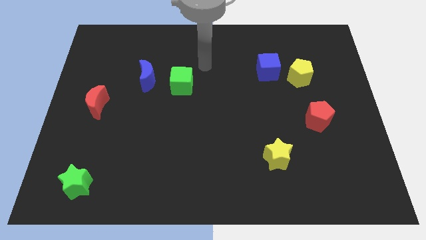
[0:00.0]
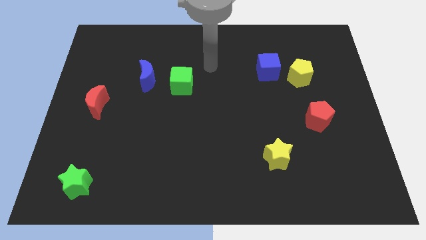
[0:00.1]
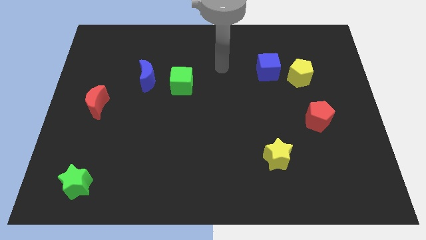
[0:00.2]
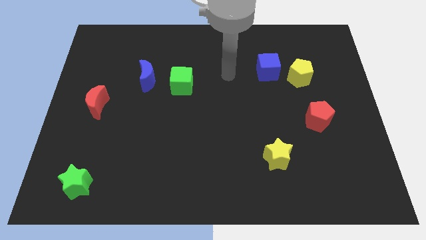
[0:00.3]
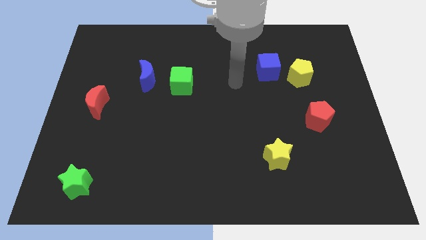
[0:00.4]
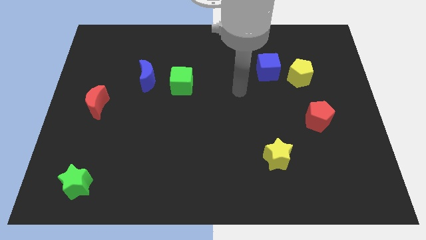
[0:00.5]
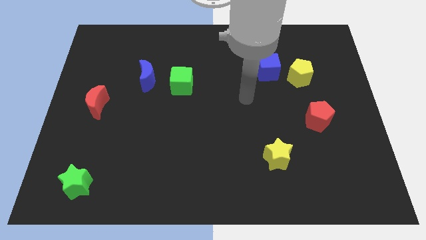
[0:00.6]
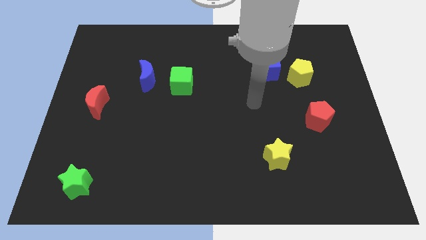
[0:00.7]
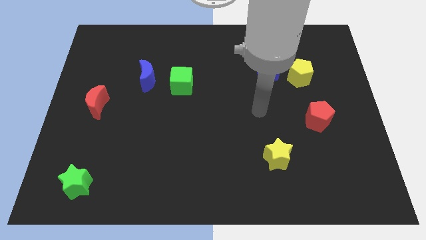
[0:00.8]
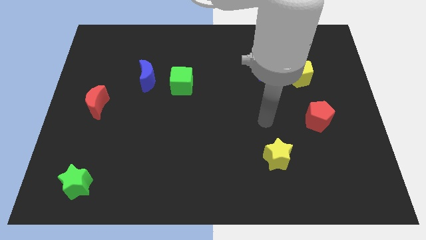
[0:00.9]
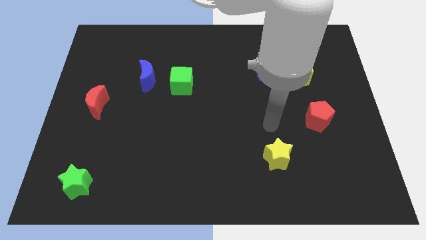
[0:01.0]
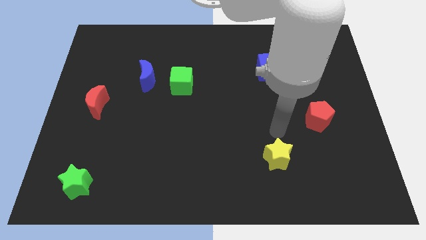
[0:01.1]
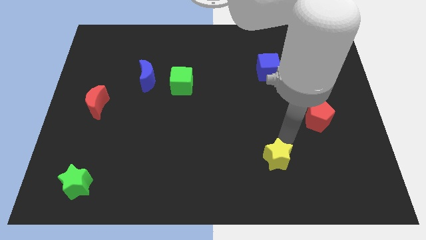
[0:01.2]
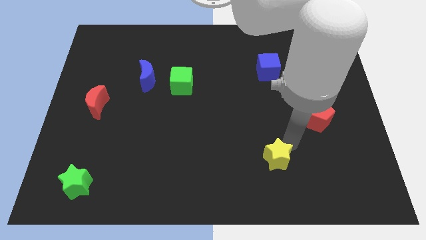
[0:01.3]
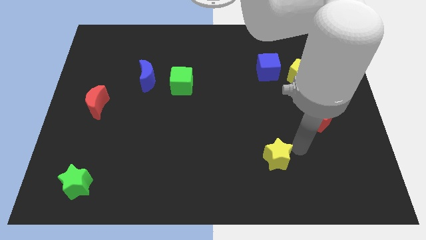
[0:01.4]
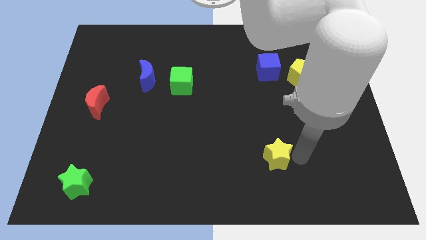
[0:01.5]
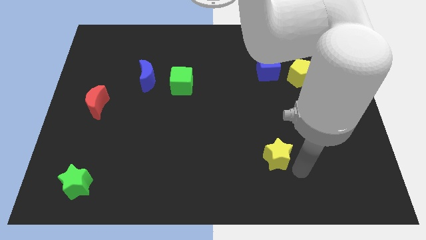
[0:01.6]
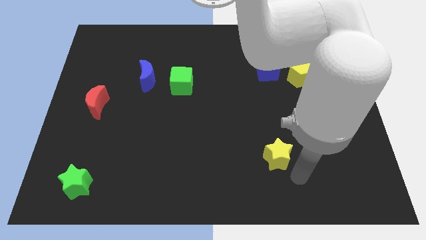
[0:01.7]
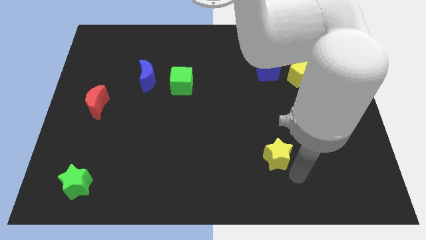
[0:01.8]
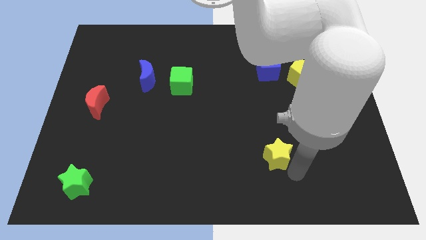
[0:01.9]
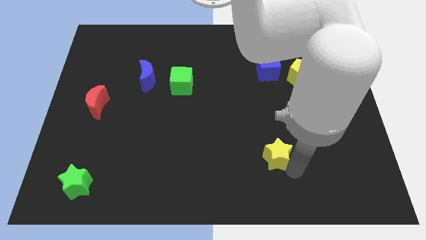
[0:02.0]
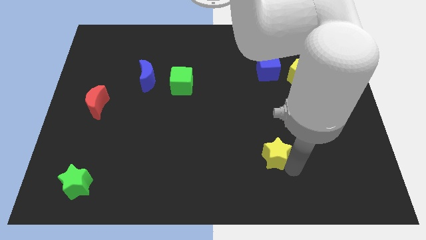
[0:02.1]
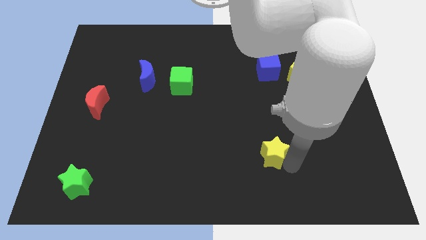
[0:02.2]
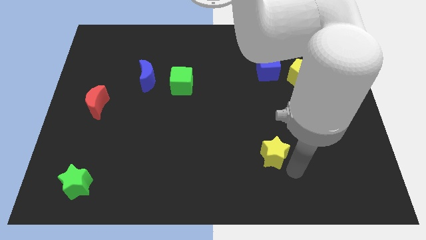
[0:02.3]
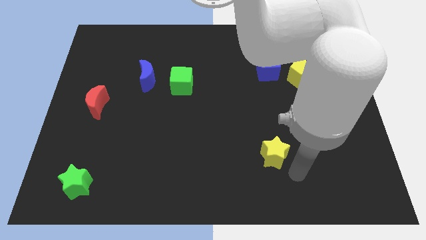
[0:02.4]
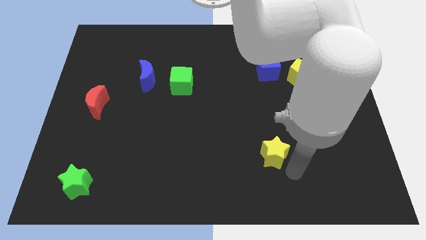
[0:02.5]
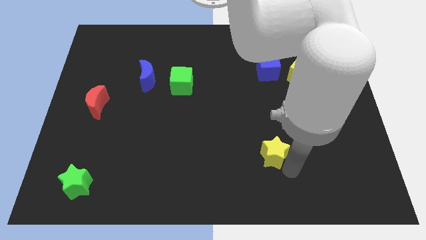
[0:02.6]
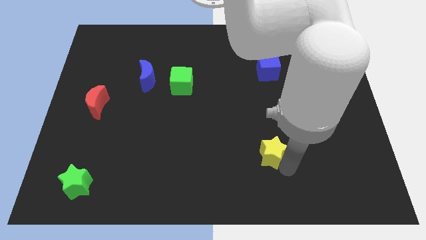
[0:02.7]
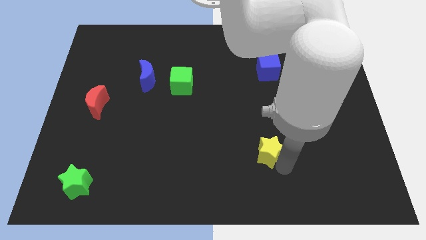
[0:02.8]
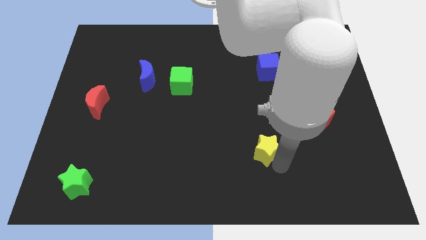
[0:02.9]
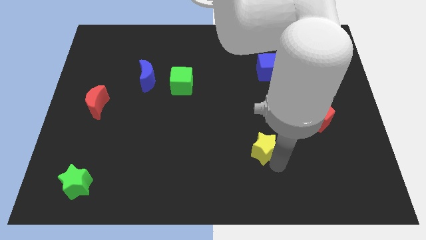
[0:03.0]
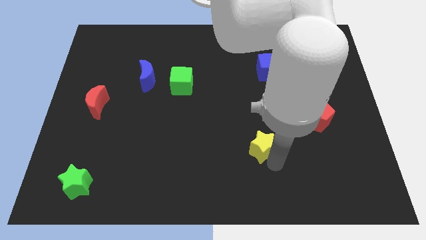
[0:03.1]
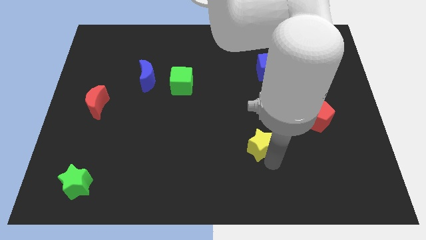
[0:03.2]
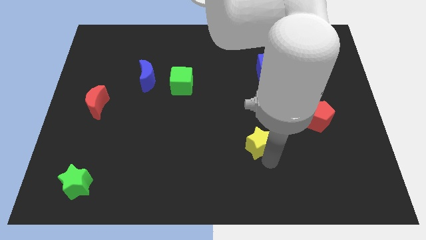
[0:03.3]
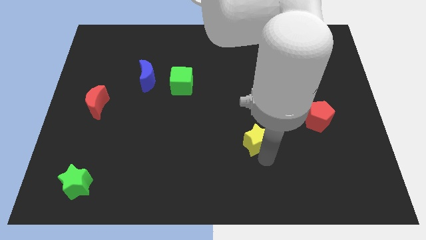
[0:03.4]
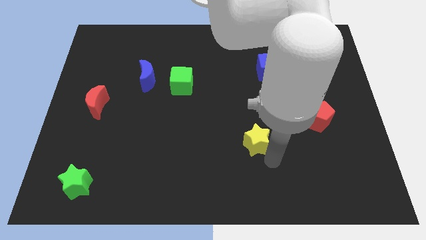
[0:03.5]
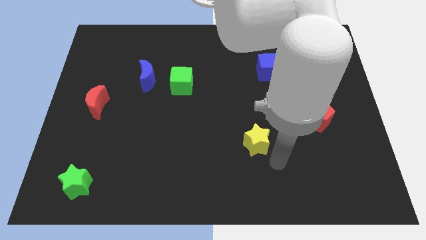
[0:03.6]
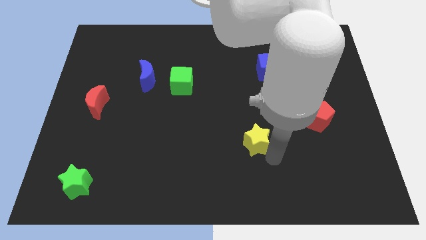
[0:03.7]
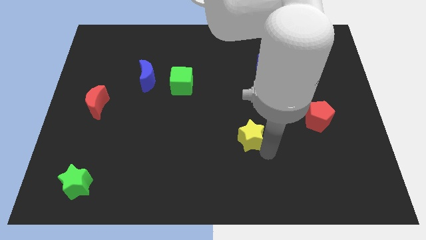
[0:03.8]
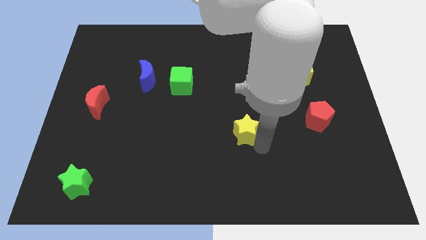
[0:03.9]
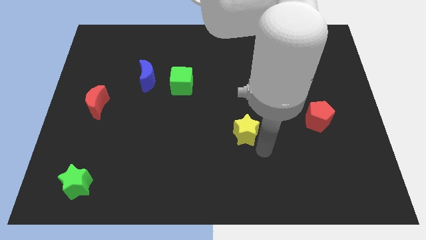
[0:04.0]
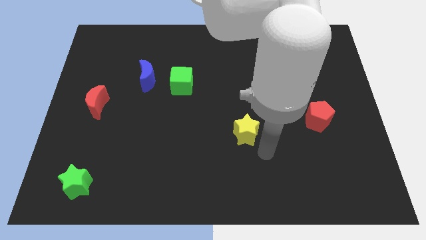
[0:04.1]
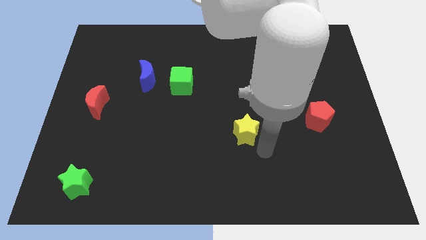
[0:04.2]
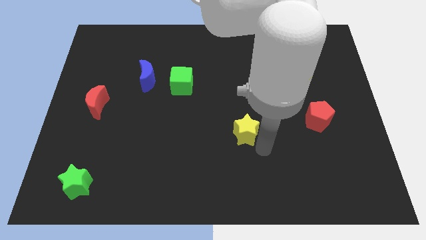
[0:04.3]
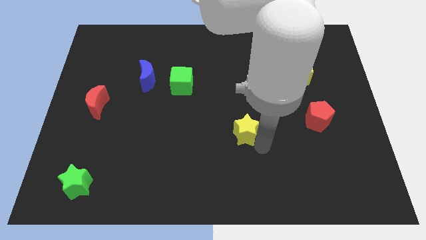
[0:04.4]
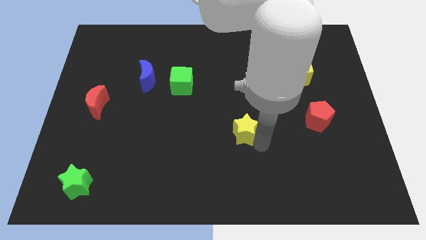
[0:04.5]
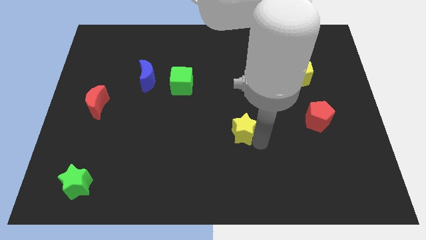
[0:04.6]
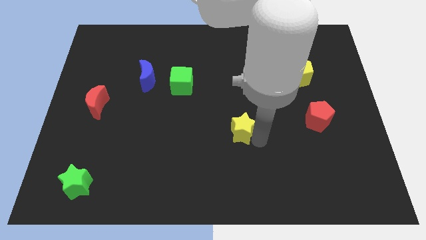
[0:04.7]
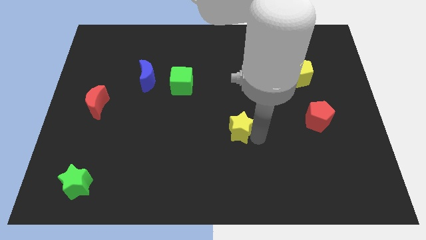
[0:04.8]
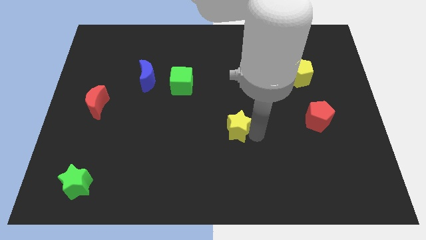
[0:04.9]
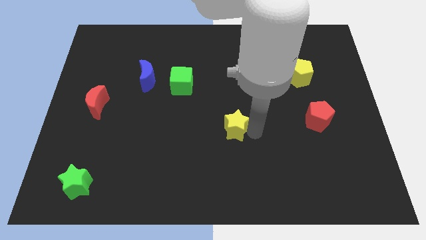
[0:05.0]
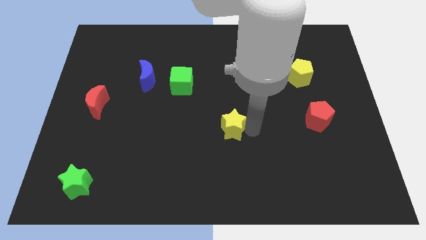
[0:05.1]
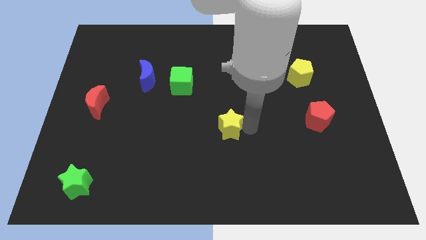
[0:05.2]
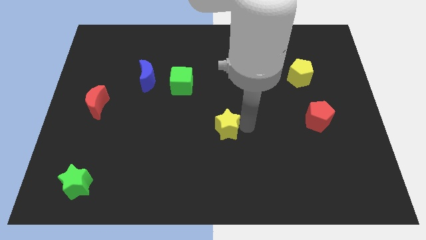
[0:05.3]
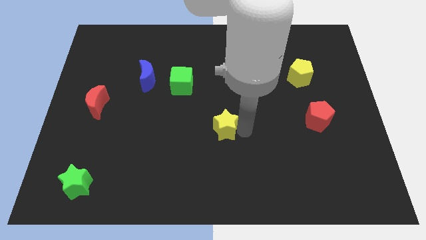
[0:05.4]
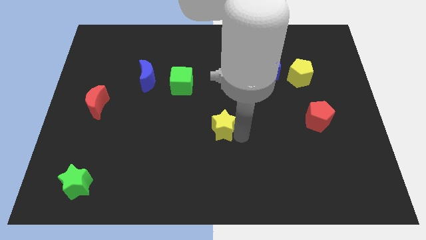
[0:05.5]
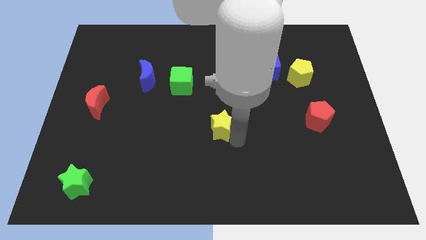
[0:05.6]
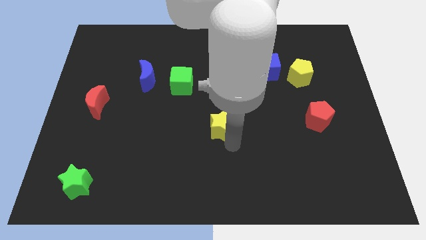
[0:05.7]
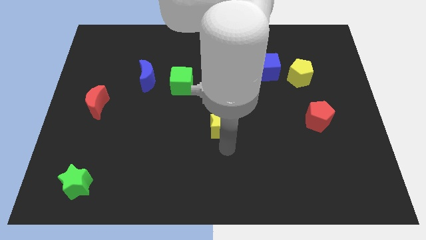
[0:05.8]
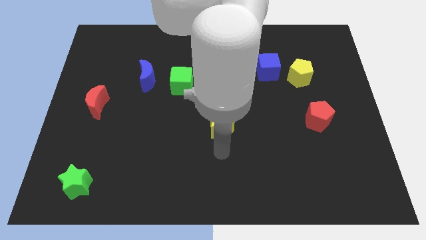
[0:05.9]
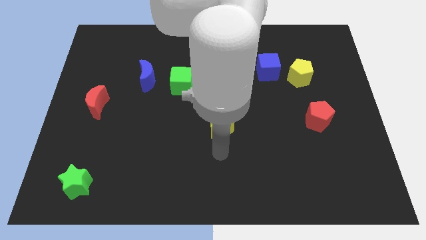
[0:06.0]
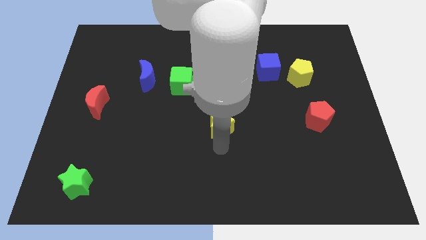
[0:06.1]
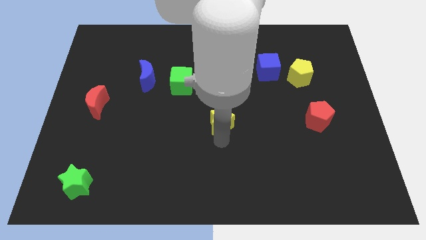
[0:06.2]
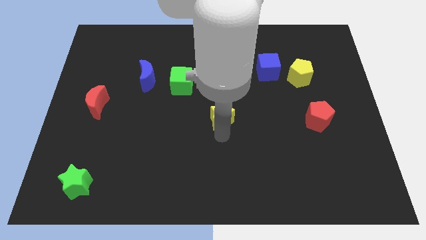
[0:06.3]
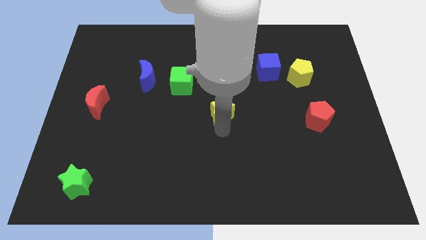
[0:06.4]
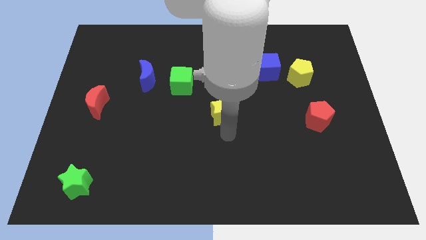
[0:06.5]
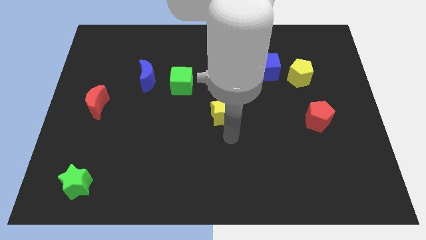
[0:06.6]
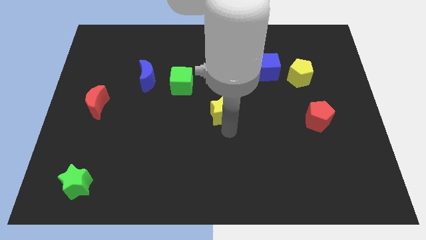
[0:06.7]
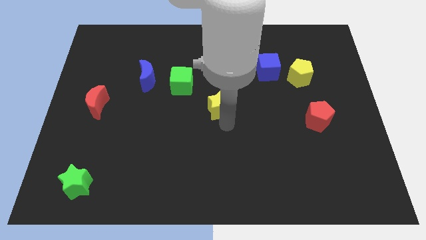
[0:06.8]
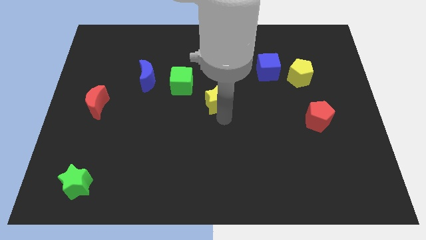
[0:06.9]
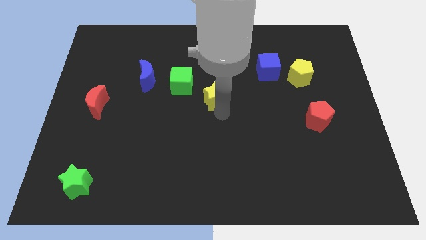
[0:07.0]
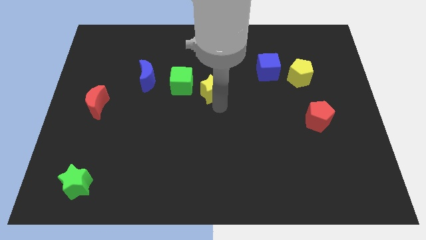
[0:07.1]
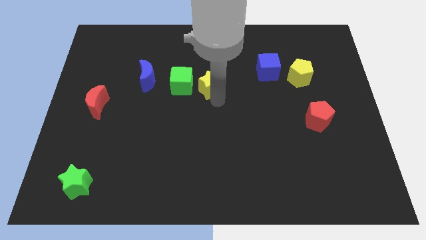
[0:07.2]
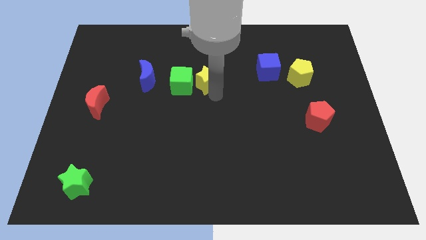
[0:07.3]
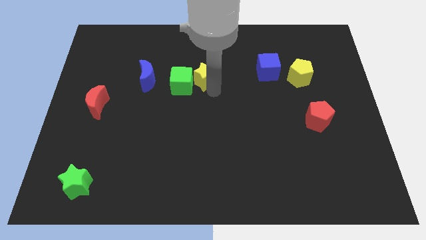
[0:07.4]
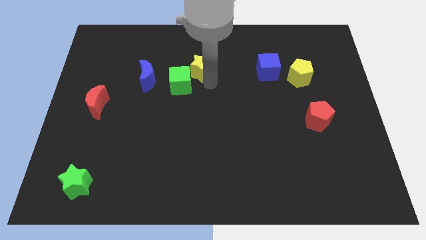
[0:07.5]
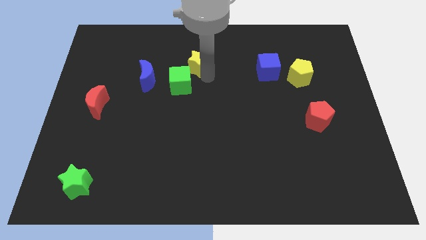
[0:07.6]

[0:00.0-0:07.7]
move the yellow star to the top side of the green cube
